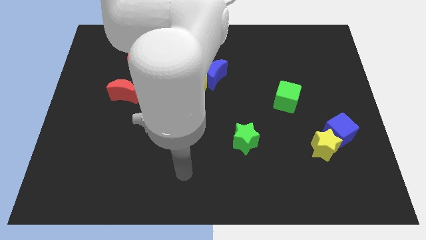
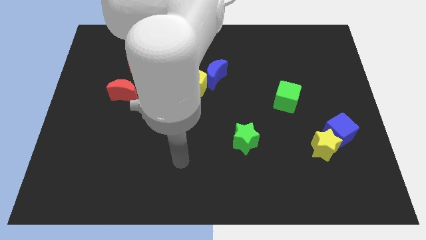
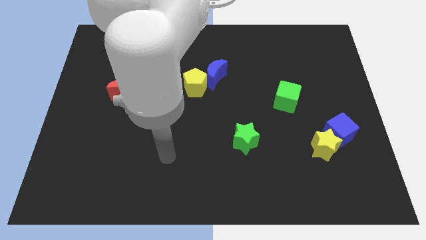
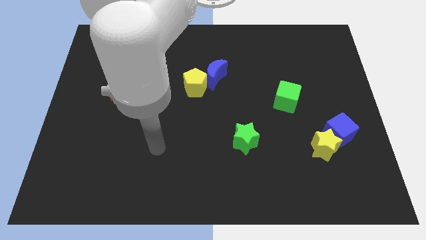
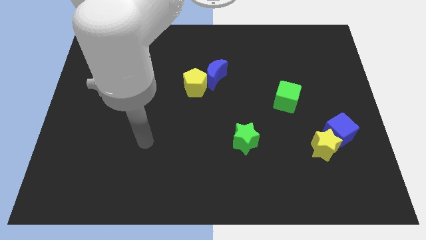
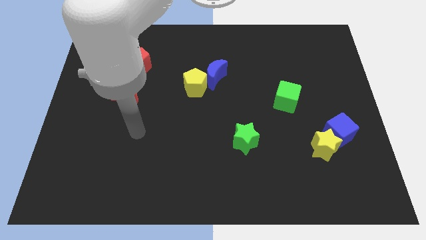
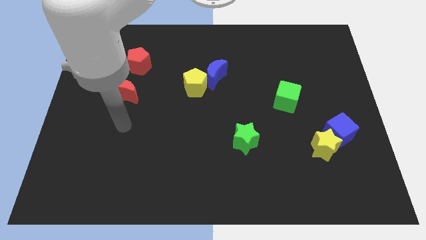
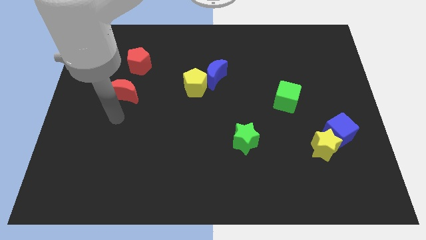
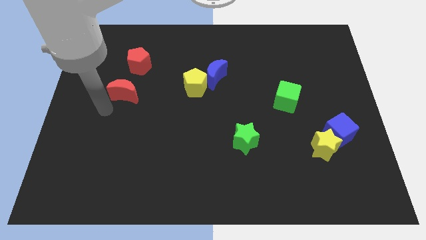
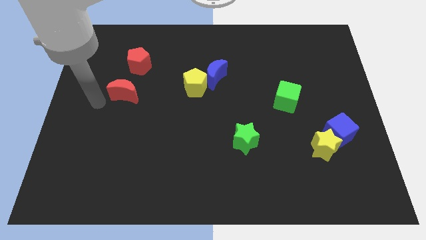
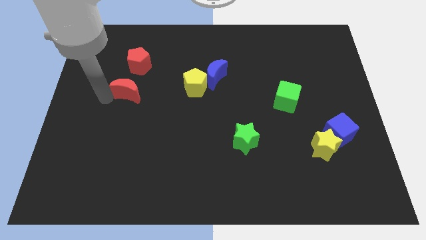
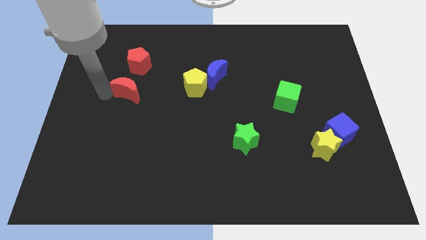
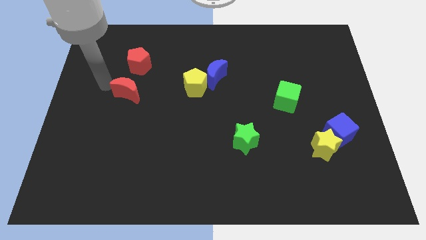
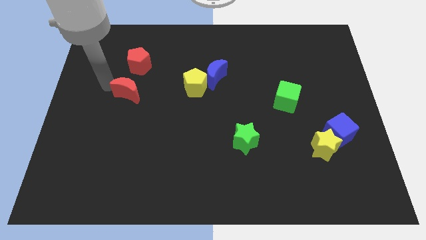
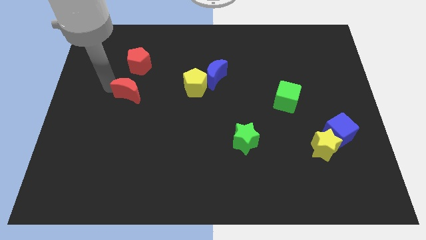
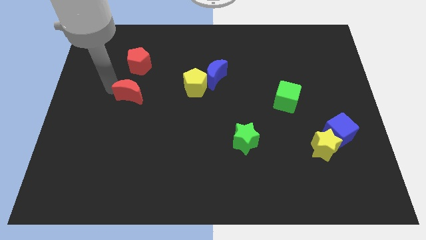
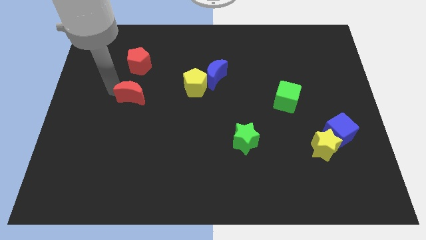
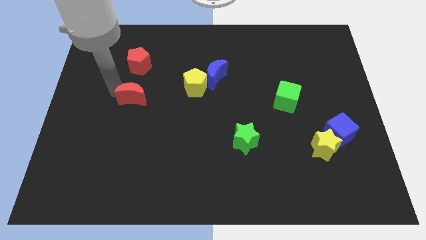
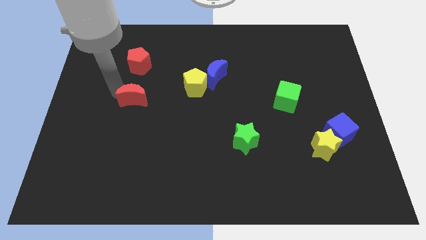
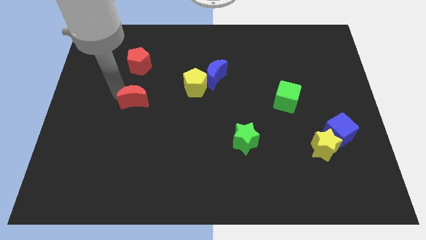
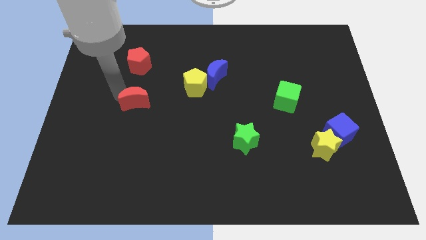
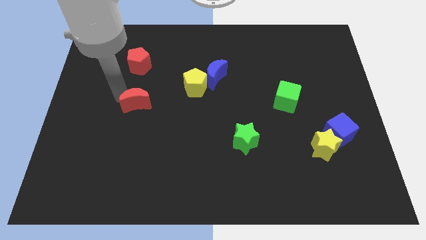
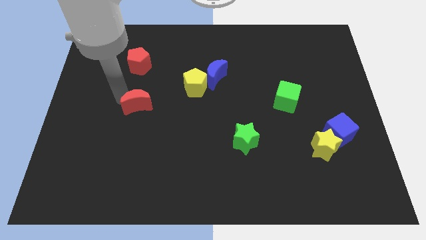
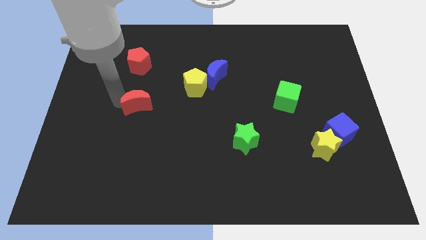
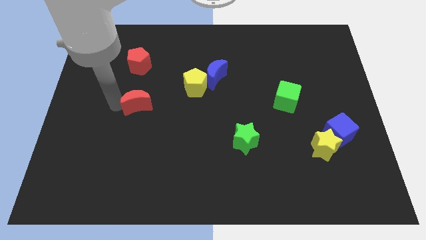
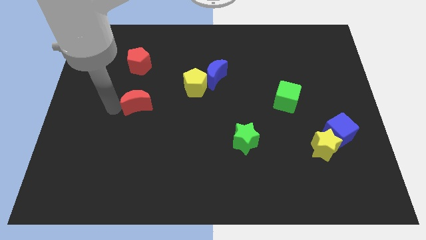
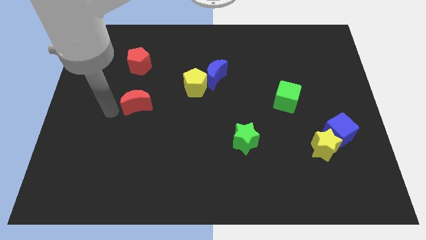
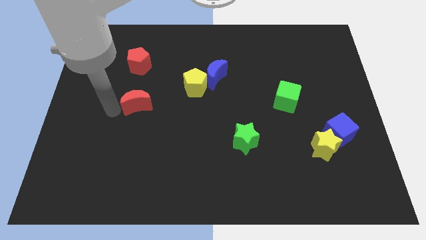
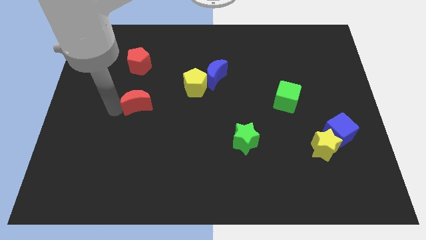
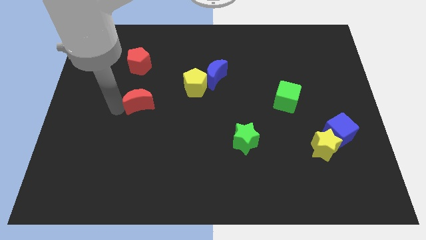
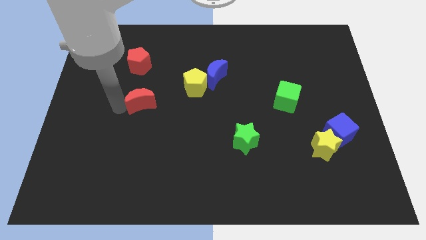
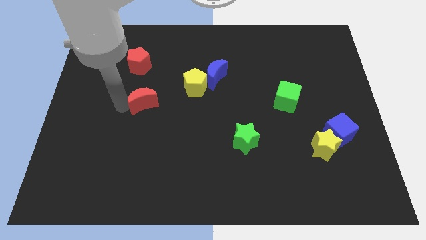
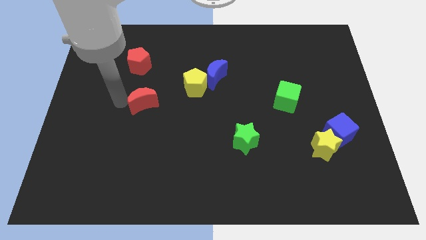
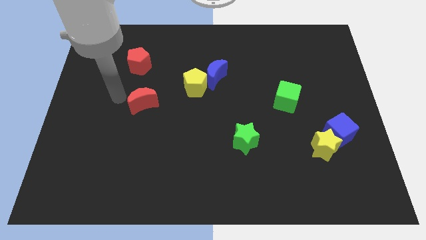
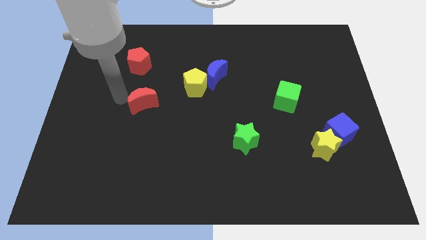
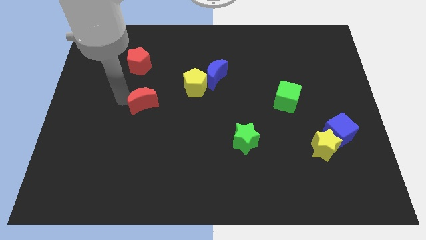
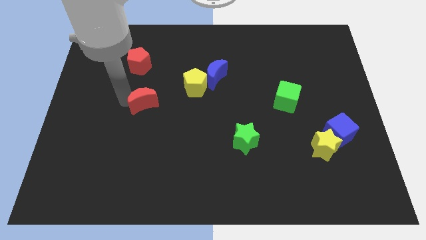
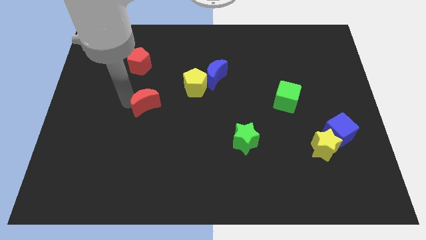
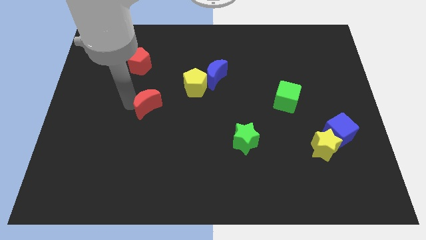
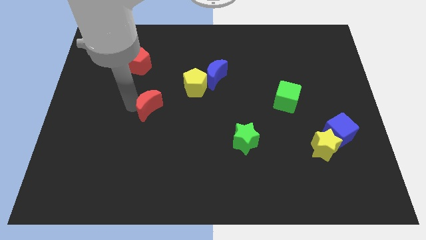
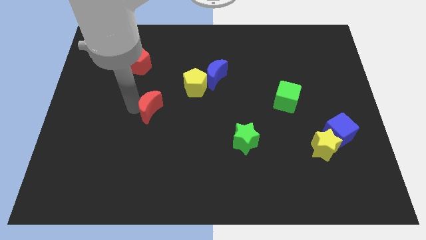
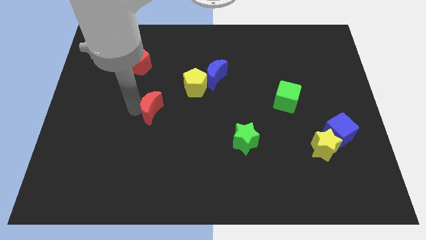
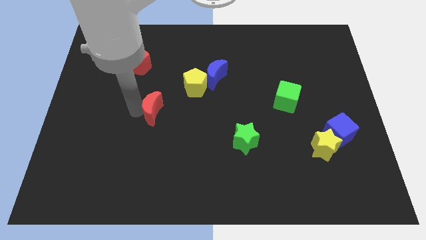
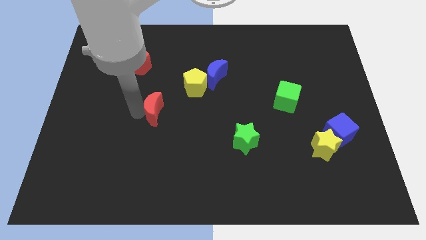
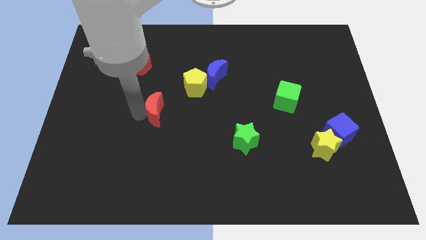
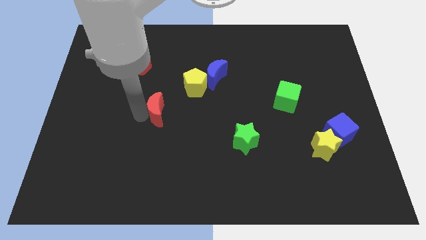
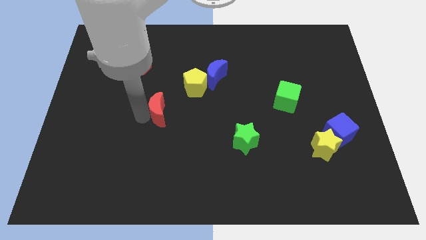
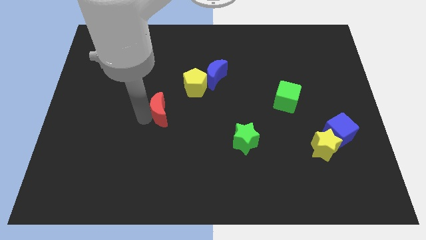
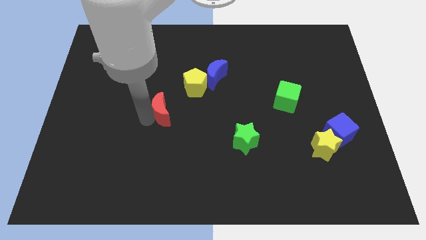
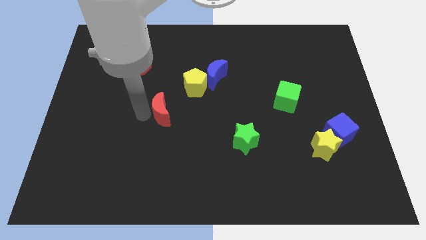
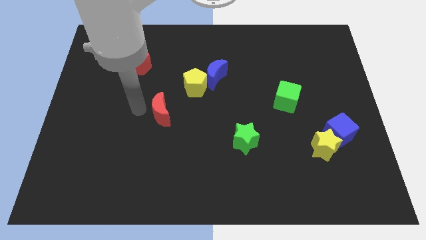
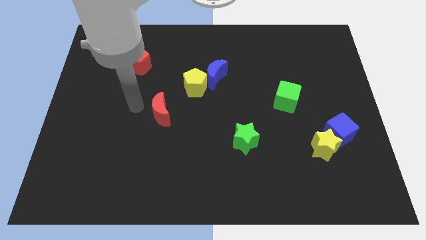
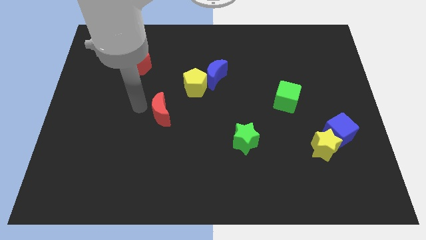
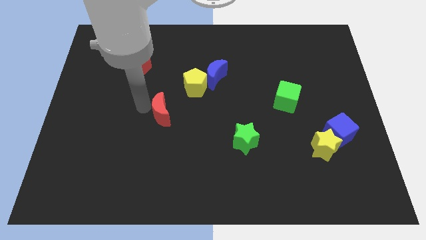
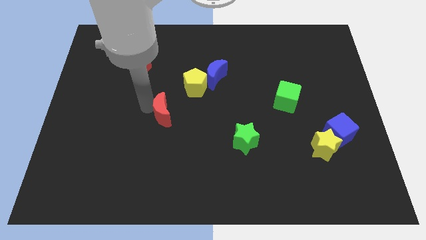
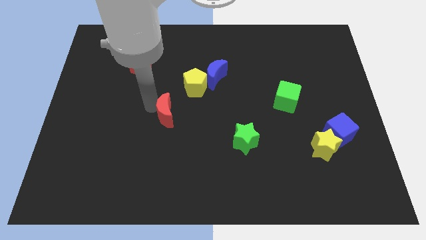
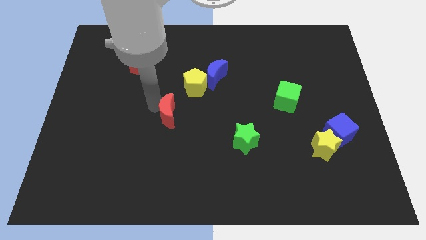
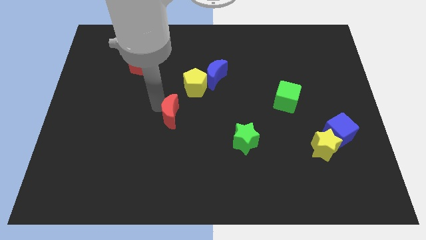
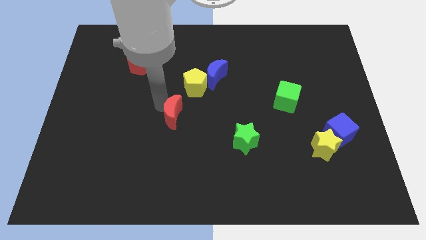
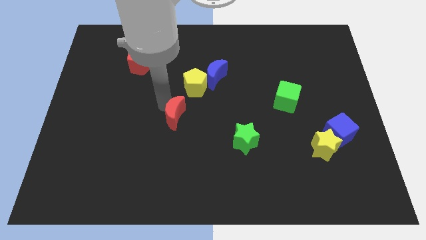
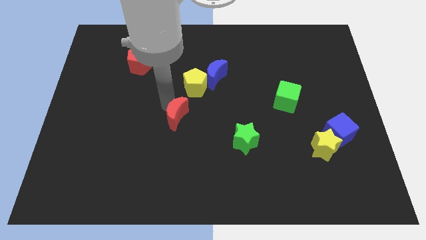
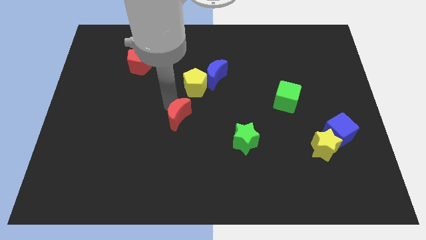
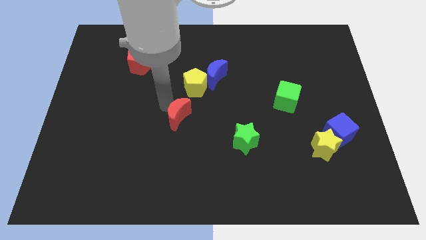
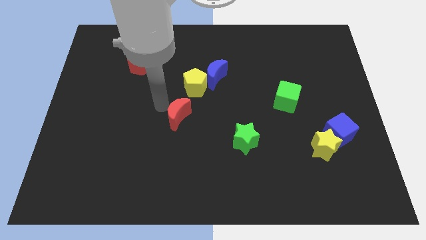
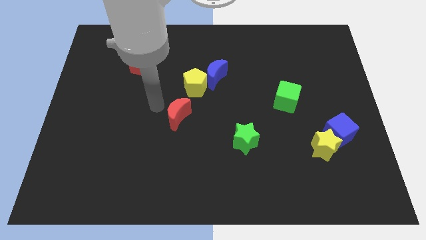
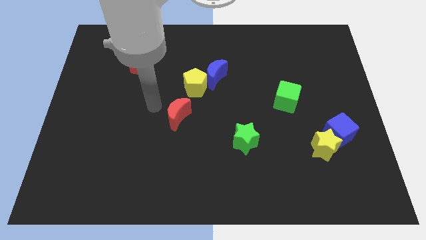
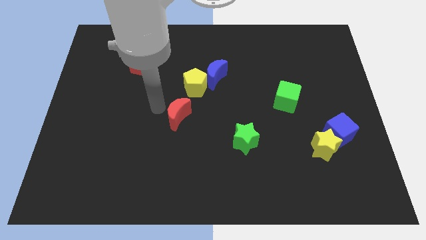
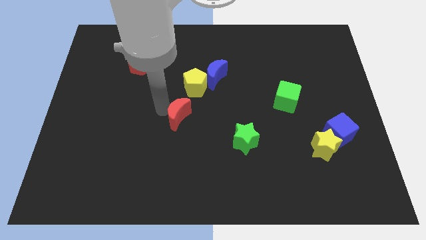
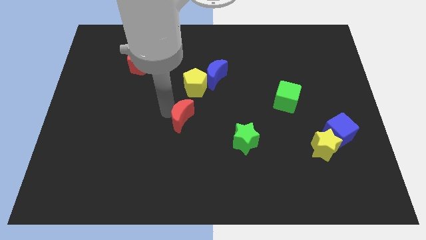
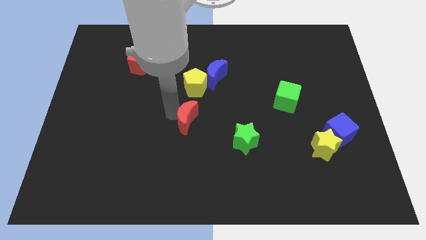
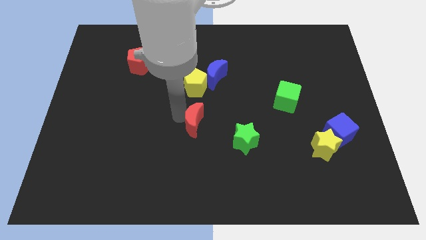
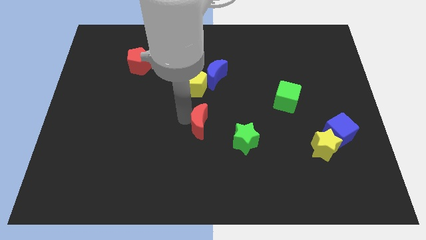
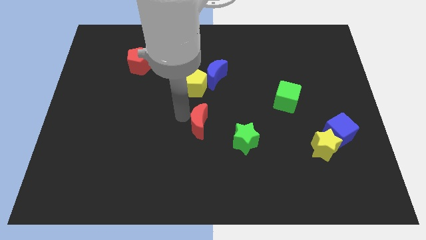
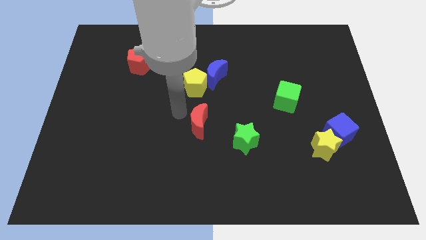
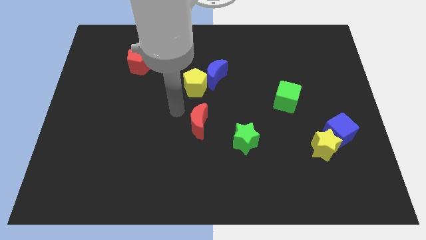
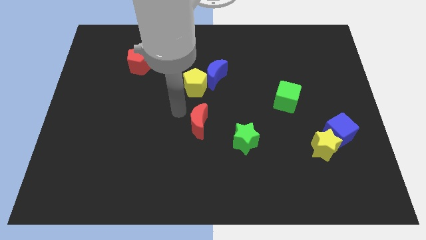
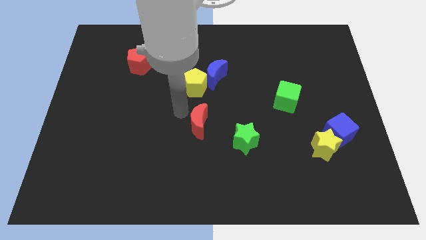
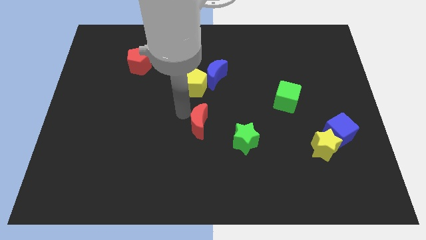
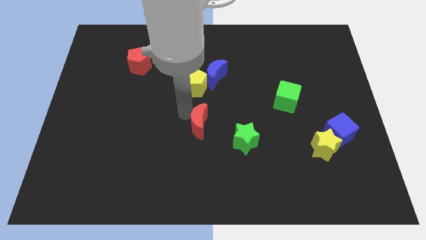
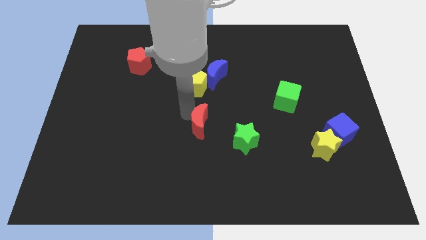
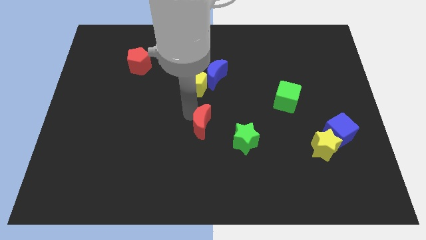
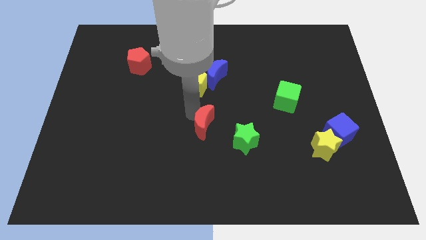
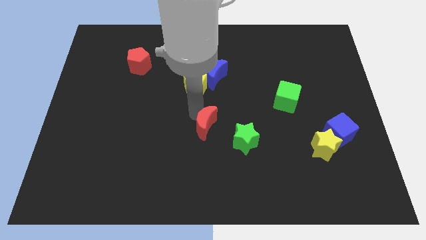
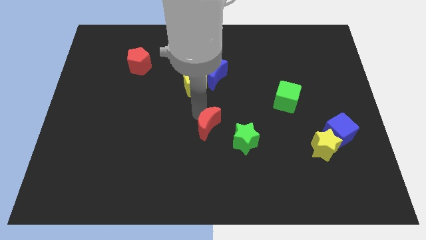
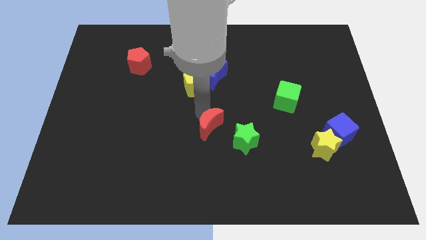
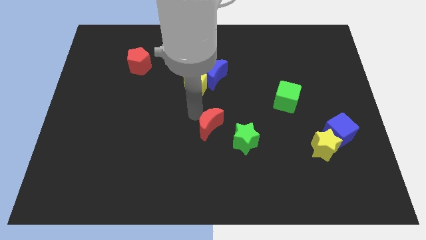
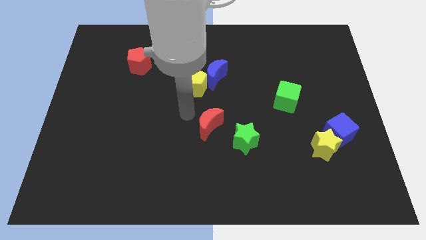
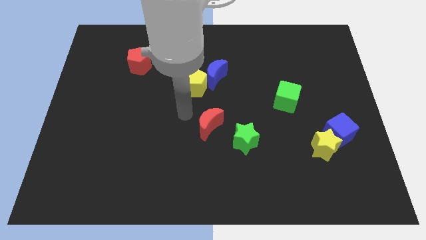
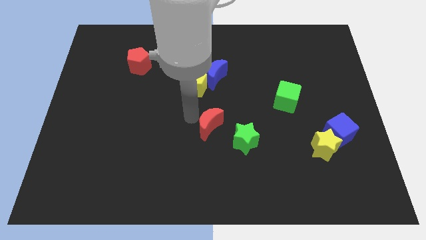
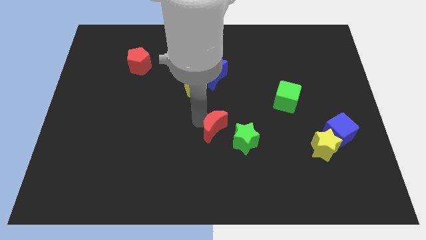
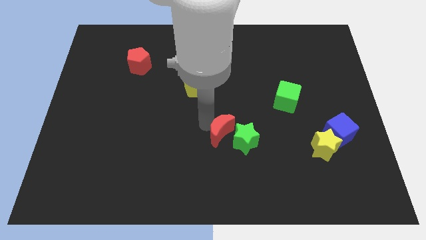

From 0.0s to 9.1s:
put the red moon towards the green star
